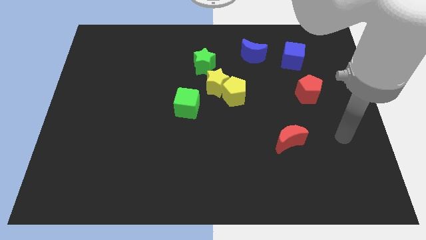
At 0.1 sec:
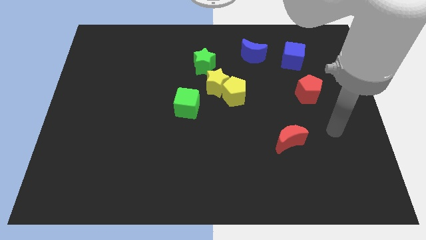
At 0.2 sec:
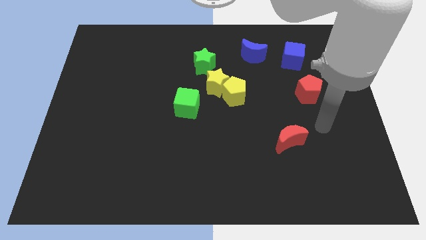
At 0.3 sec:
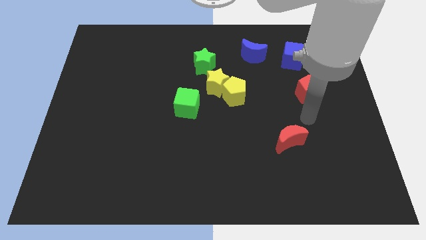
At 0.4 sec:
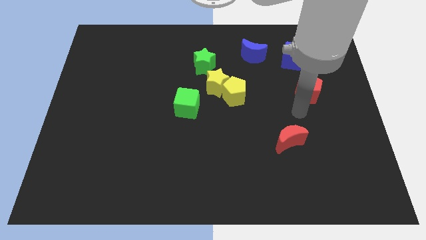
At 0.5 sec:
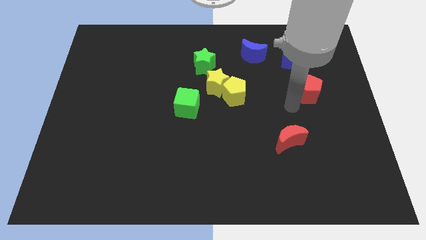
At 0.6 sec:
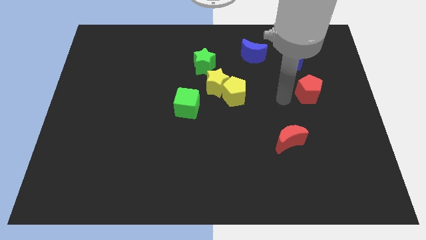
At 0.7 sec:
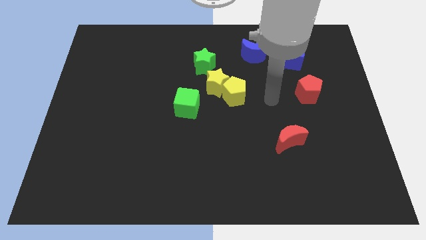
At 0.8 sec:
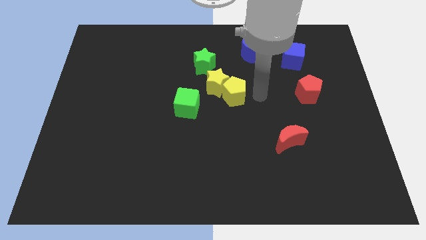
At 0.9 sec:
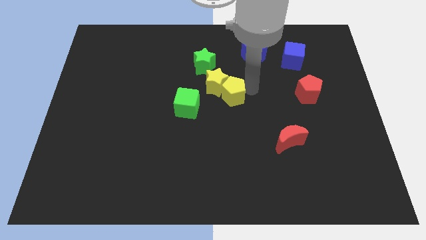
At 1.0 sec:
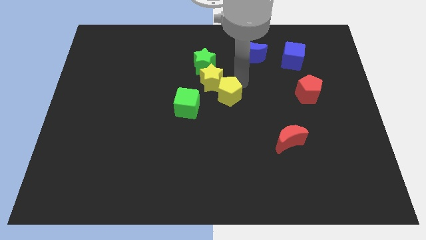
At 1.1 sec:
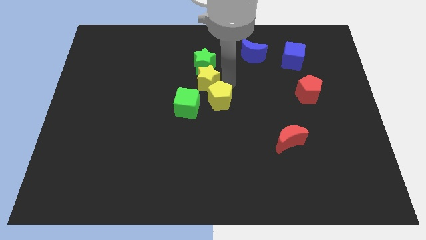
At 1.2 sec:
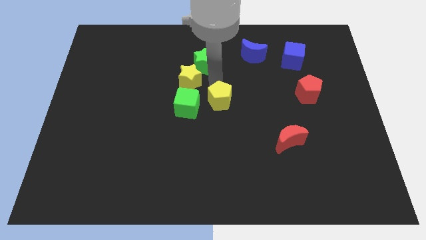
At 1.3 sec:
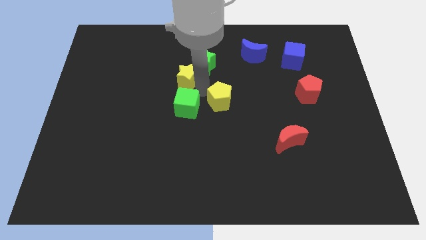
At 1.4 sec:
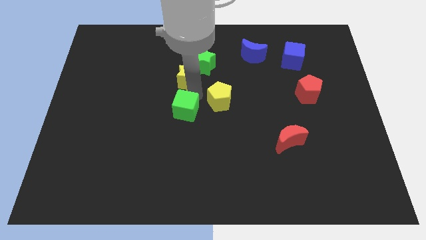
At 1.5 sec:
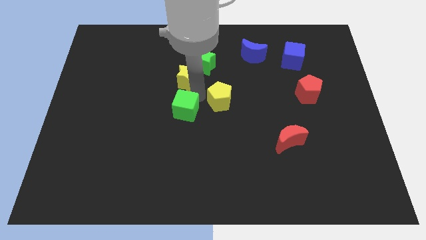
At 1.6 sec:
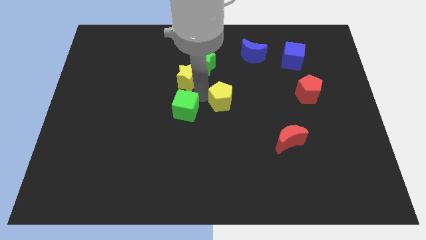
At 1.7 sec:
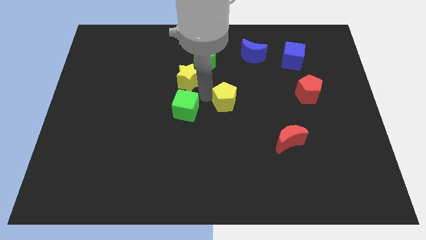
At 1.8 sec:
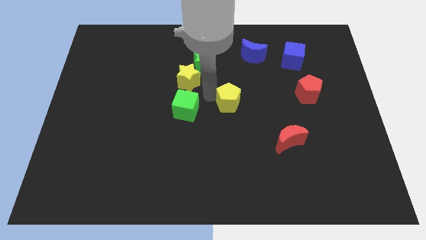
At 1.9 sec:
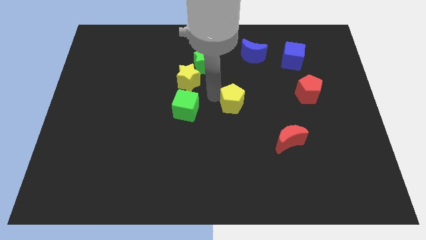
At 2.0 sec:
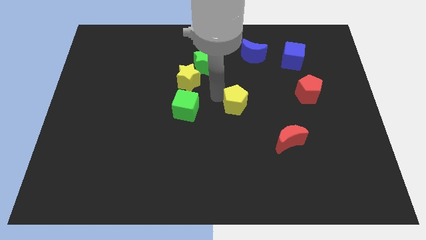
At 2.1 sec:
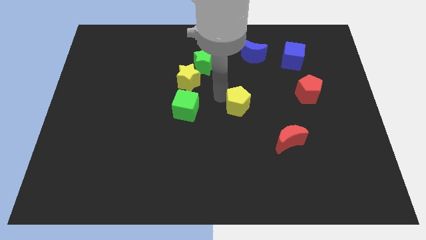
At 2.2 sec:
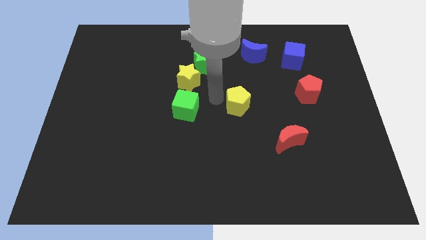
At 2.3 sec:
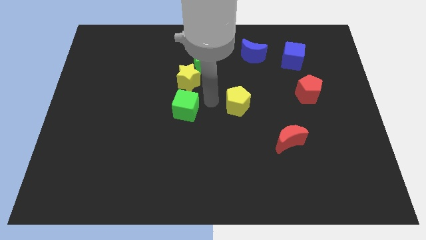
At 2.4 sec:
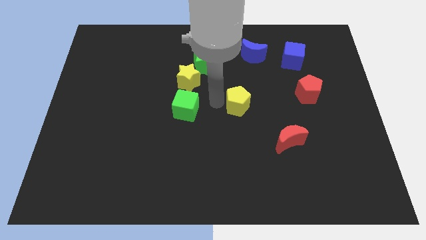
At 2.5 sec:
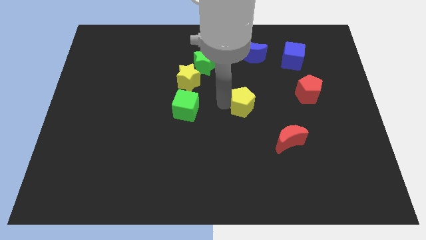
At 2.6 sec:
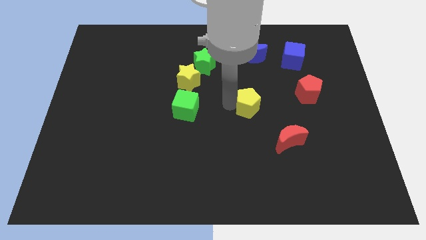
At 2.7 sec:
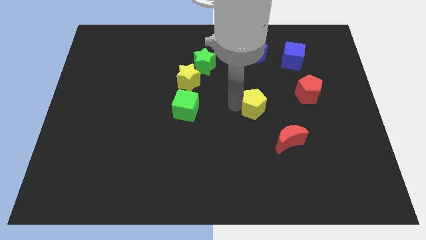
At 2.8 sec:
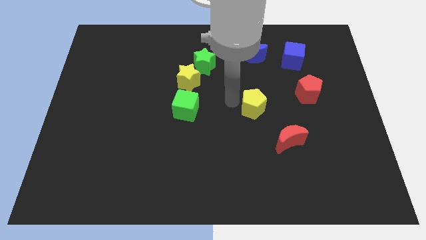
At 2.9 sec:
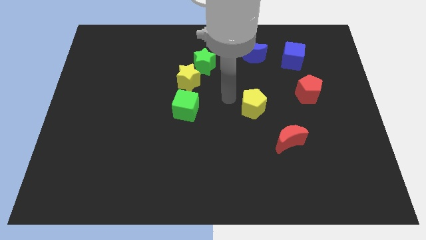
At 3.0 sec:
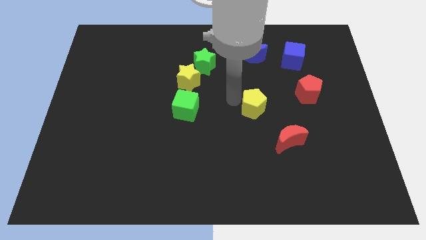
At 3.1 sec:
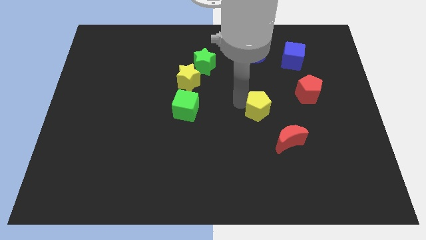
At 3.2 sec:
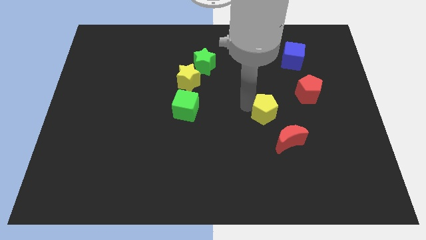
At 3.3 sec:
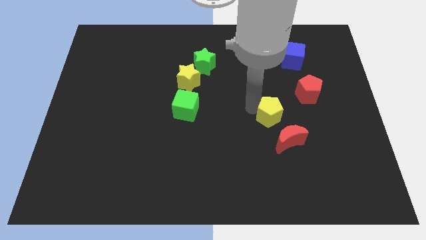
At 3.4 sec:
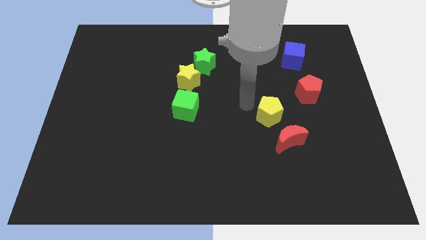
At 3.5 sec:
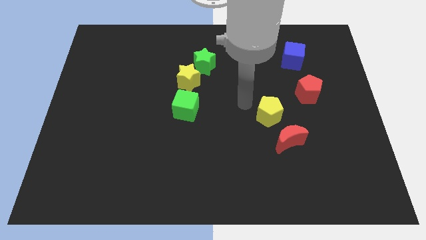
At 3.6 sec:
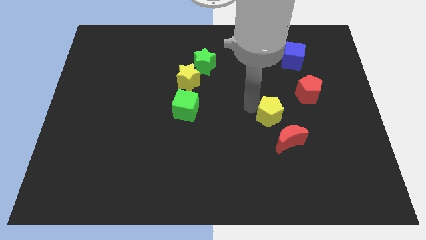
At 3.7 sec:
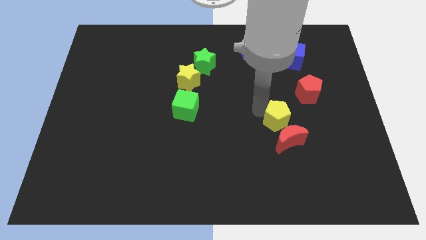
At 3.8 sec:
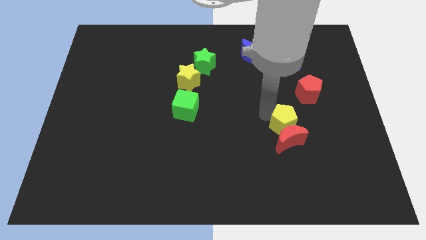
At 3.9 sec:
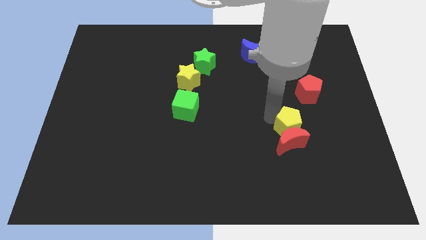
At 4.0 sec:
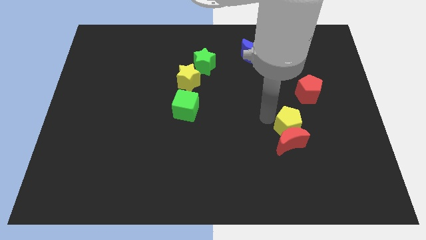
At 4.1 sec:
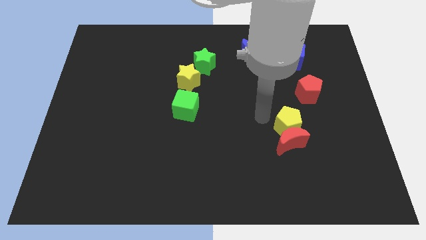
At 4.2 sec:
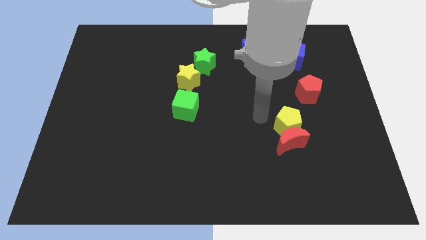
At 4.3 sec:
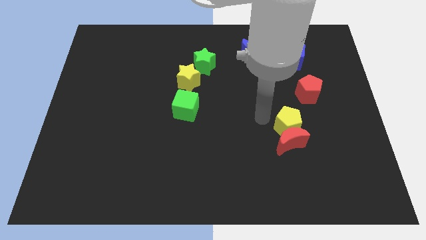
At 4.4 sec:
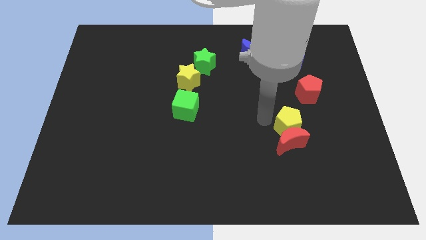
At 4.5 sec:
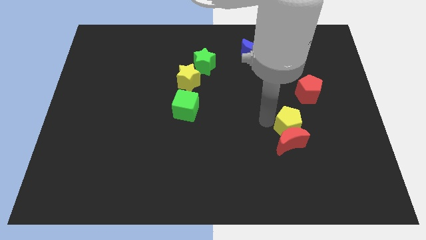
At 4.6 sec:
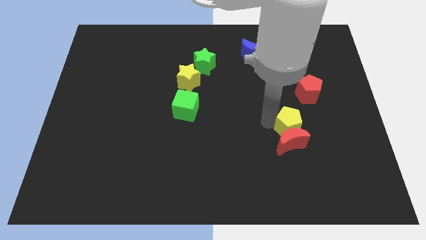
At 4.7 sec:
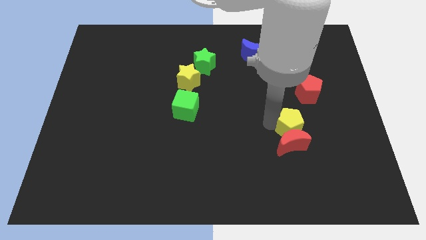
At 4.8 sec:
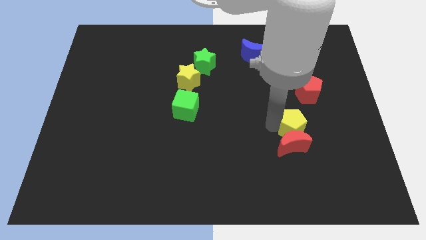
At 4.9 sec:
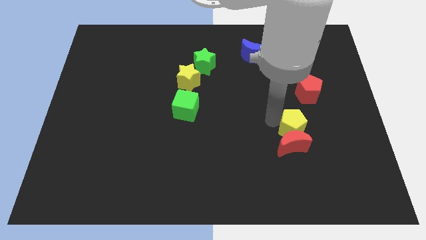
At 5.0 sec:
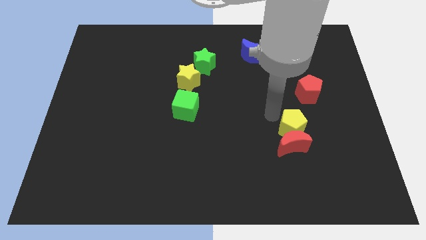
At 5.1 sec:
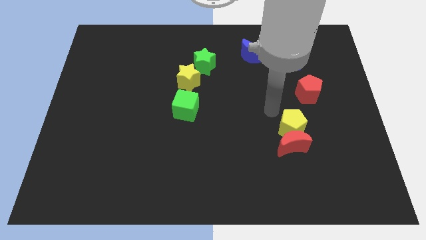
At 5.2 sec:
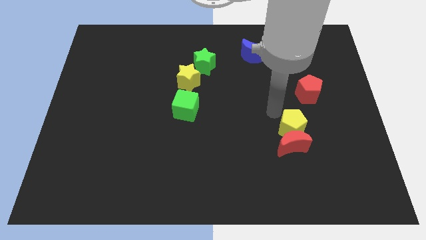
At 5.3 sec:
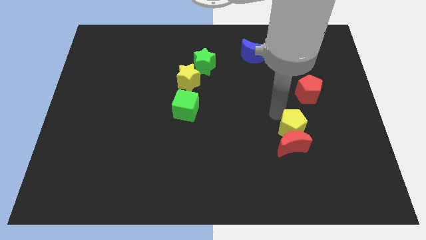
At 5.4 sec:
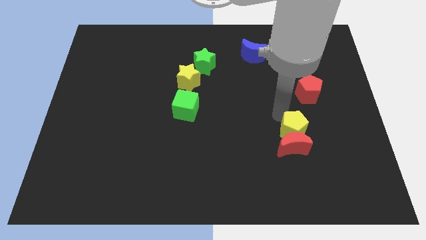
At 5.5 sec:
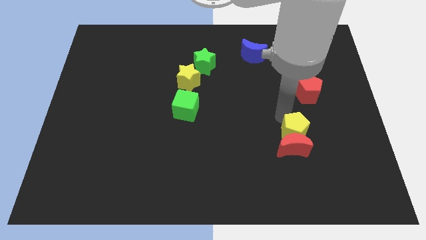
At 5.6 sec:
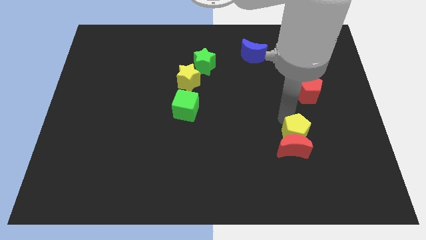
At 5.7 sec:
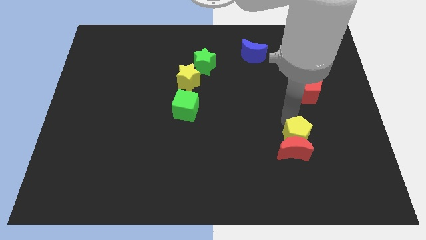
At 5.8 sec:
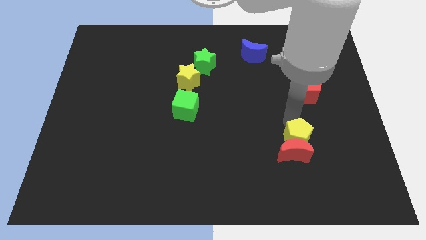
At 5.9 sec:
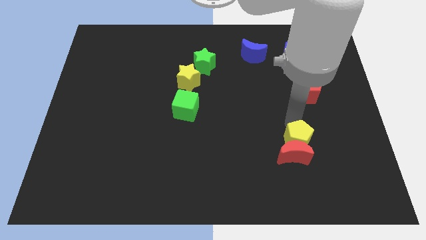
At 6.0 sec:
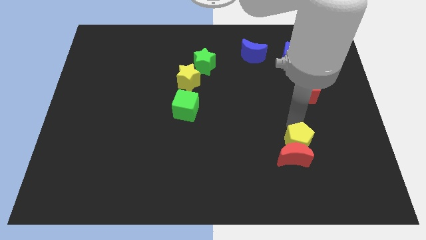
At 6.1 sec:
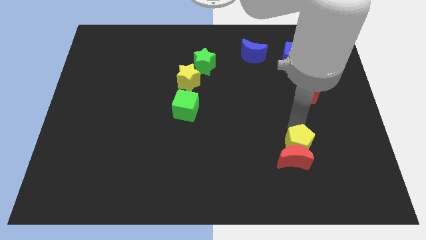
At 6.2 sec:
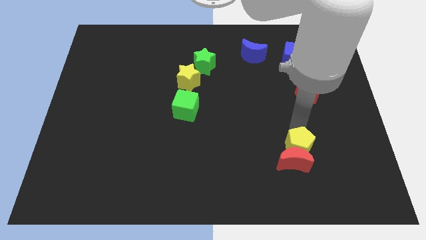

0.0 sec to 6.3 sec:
push the yellow pentagon down and right diagonally

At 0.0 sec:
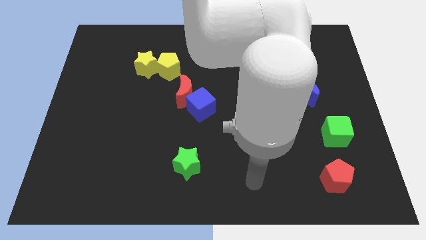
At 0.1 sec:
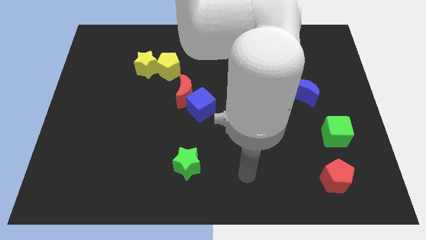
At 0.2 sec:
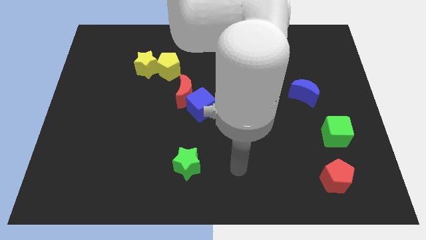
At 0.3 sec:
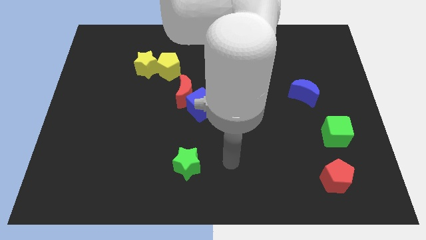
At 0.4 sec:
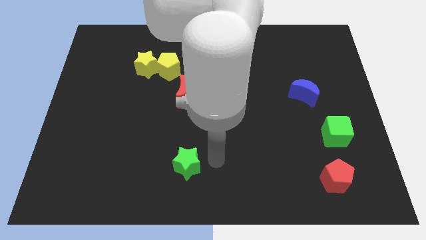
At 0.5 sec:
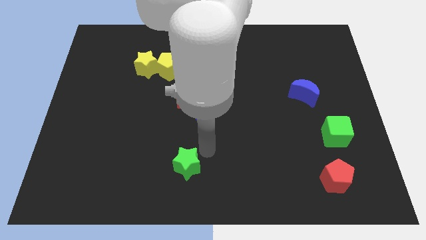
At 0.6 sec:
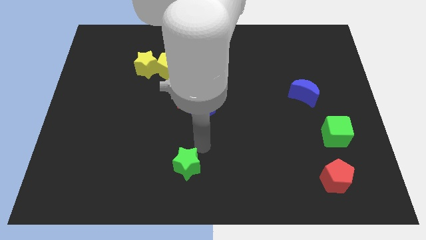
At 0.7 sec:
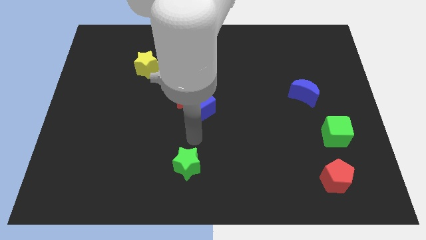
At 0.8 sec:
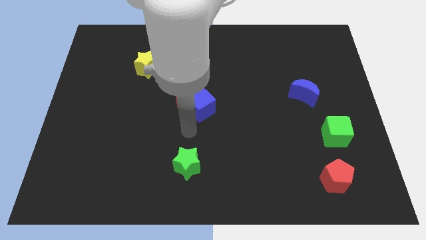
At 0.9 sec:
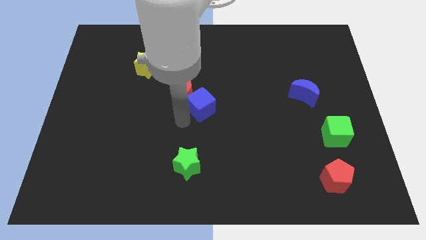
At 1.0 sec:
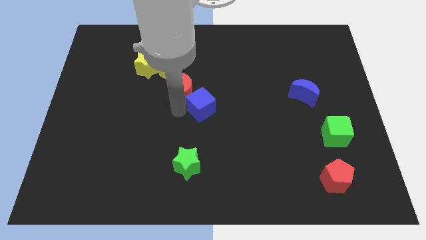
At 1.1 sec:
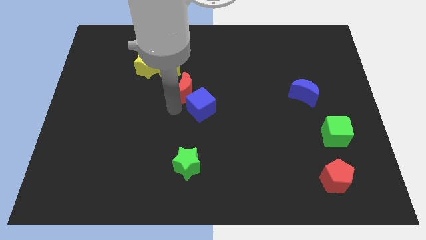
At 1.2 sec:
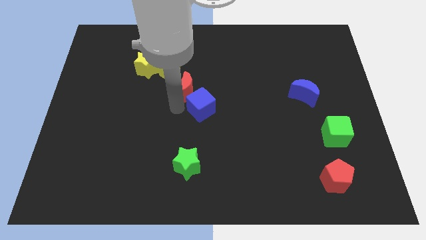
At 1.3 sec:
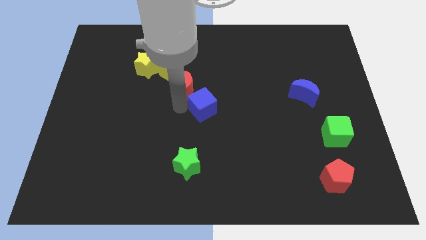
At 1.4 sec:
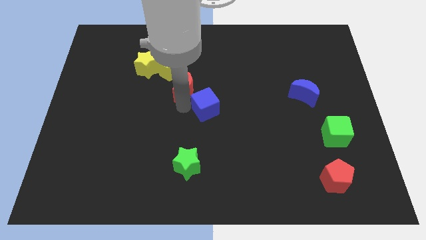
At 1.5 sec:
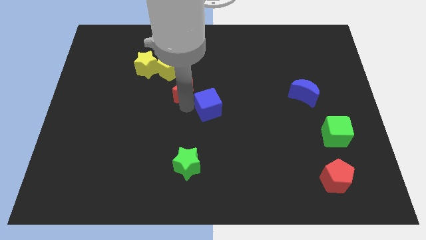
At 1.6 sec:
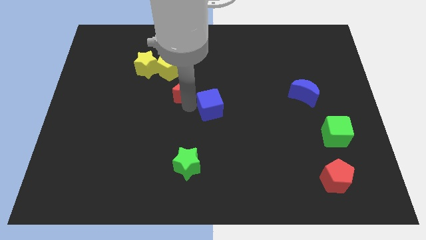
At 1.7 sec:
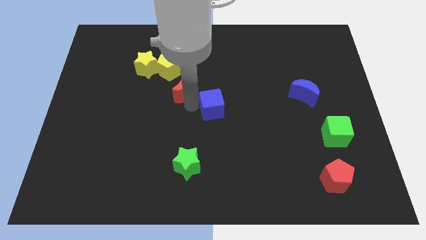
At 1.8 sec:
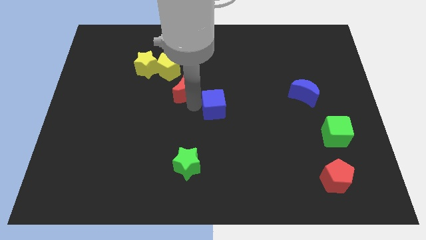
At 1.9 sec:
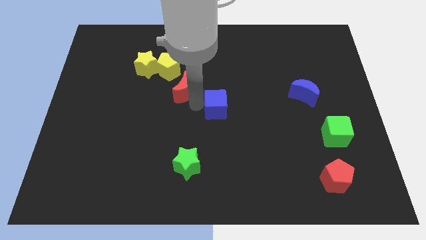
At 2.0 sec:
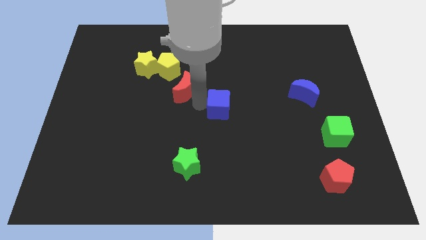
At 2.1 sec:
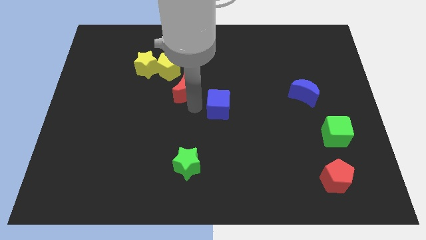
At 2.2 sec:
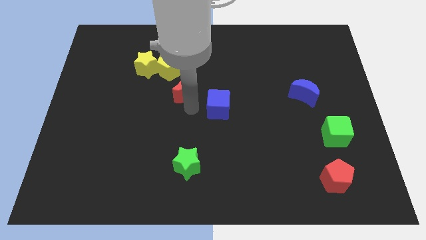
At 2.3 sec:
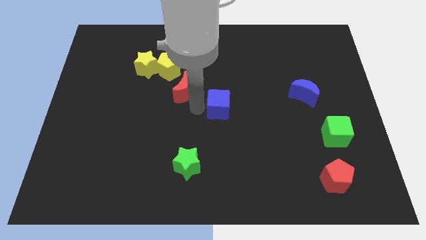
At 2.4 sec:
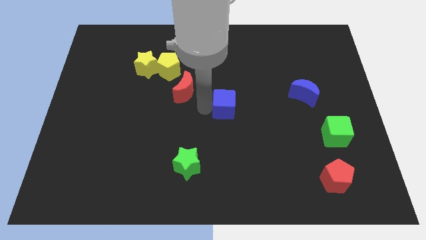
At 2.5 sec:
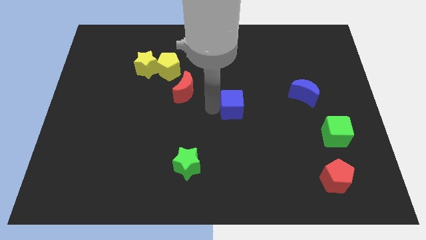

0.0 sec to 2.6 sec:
move the blue cube somewhat right
